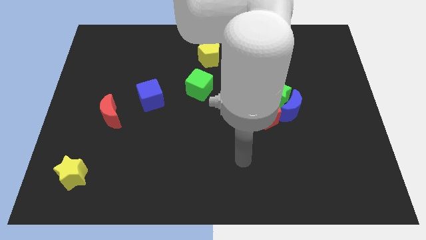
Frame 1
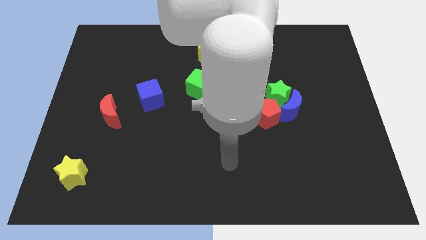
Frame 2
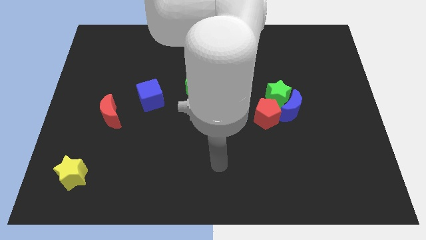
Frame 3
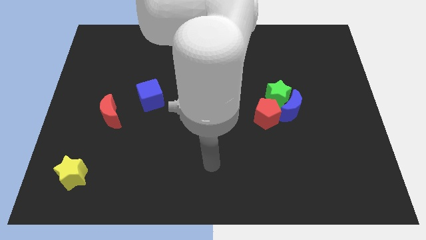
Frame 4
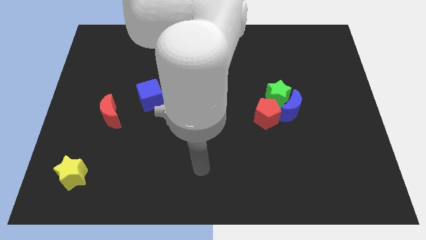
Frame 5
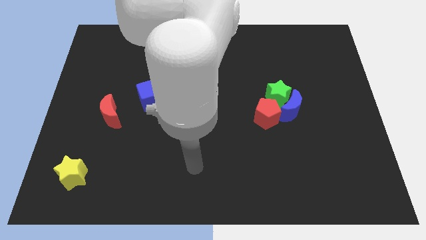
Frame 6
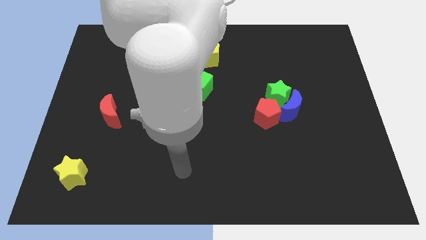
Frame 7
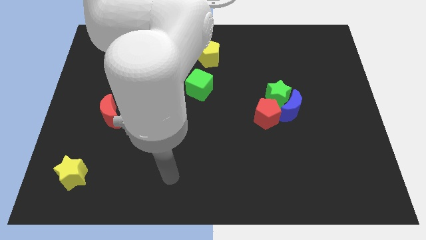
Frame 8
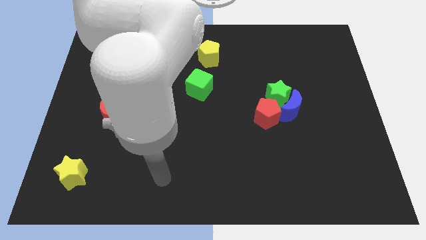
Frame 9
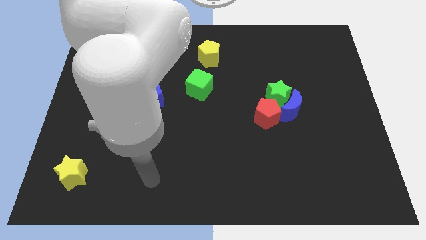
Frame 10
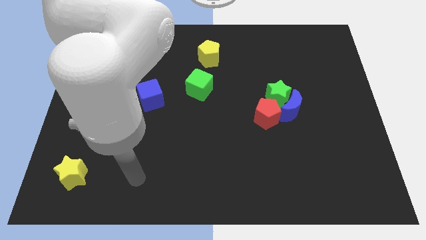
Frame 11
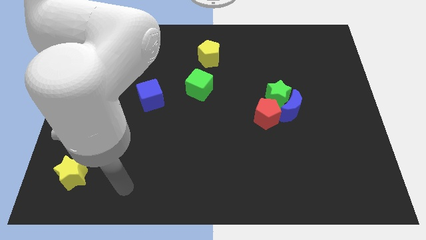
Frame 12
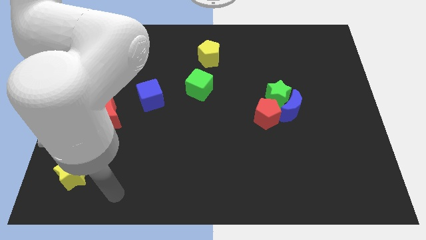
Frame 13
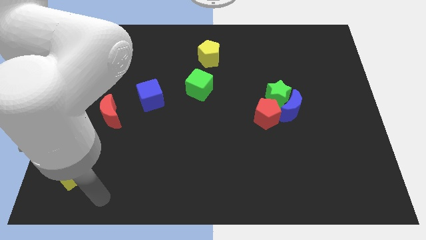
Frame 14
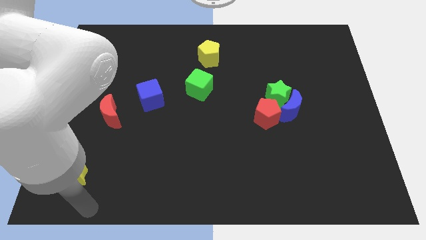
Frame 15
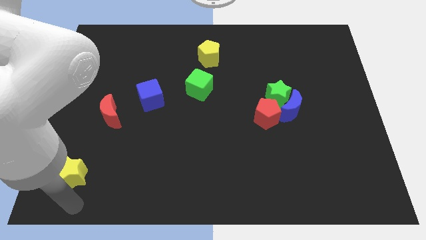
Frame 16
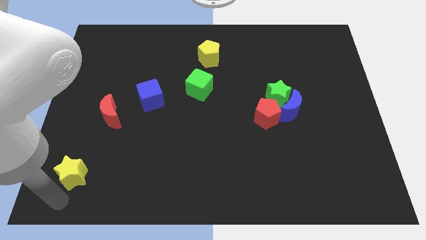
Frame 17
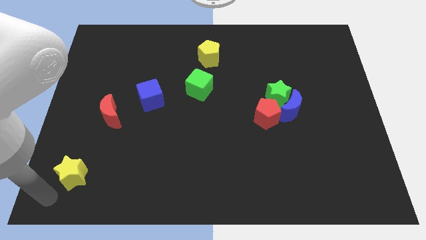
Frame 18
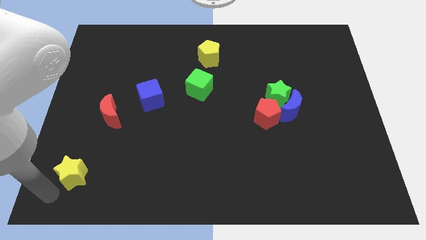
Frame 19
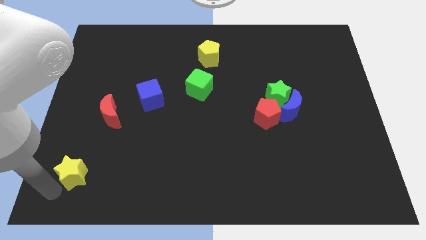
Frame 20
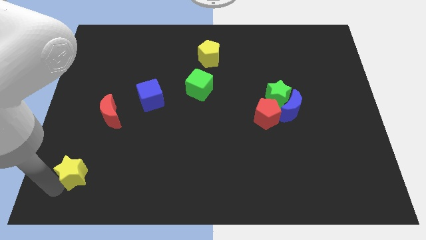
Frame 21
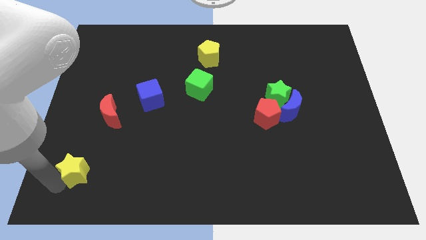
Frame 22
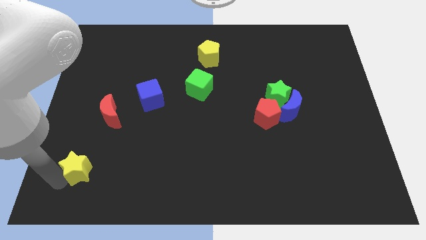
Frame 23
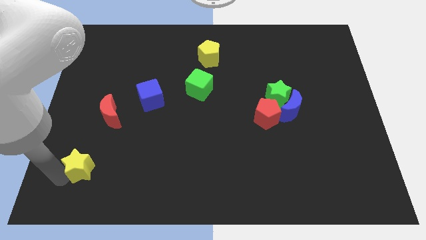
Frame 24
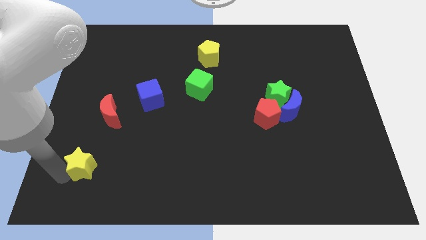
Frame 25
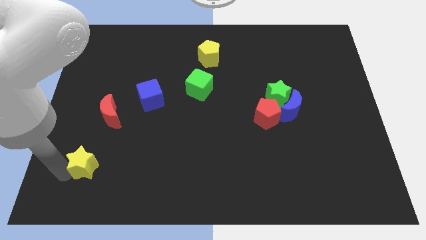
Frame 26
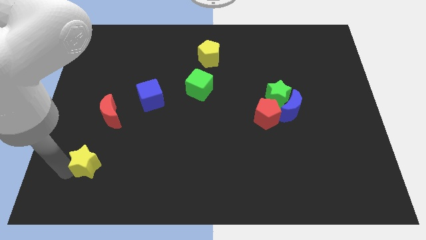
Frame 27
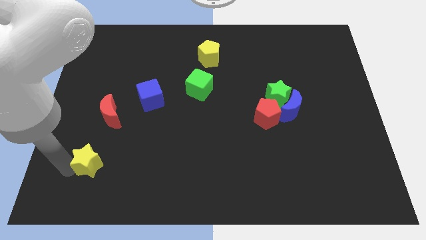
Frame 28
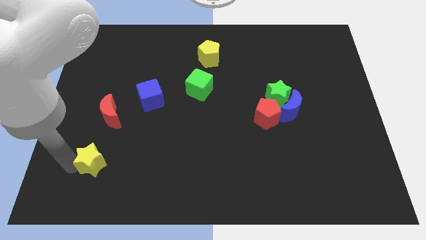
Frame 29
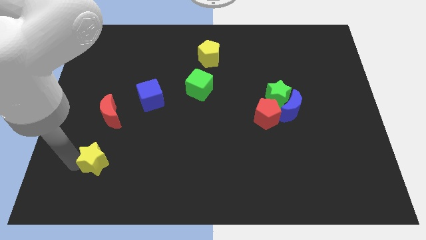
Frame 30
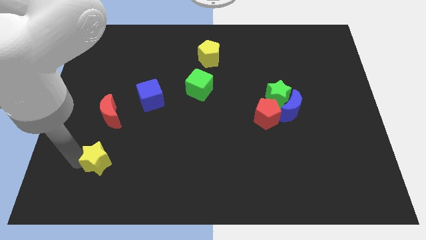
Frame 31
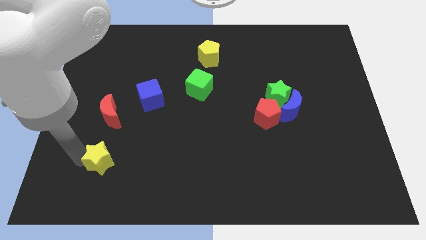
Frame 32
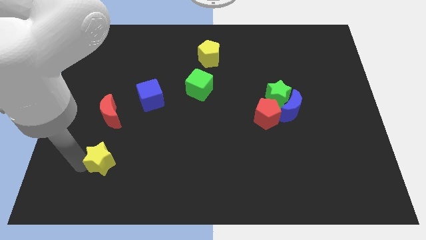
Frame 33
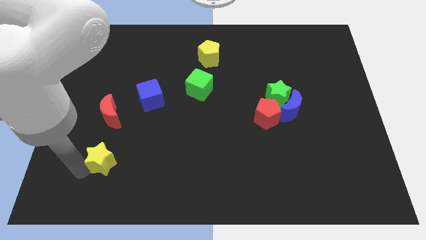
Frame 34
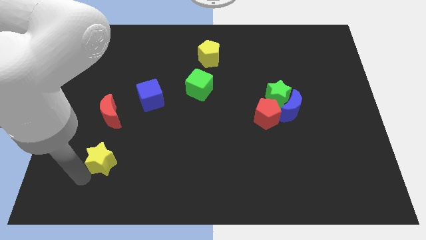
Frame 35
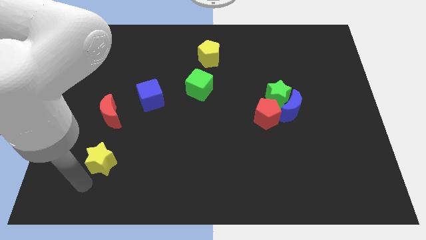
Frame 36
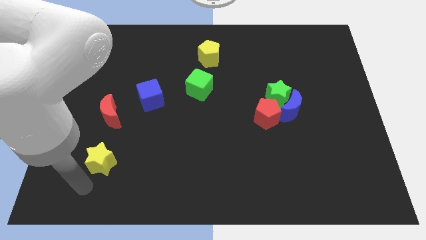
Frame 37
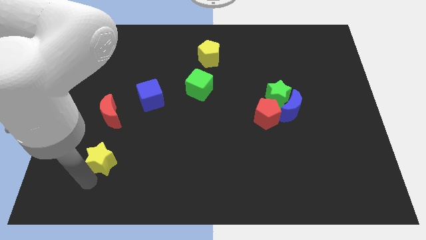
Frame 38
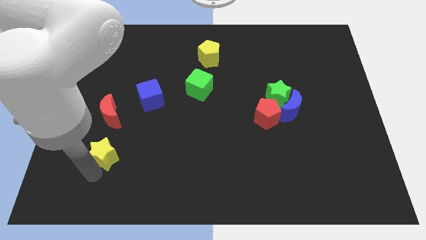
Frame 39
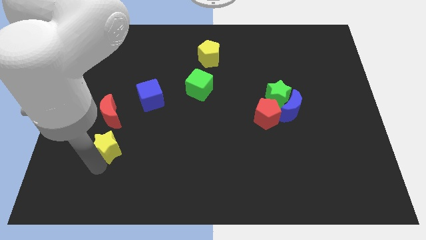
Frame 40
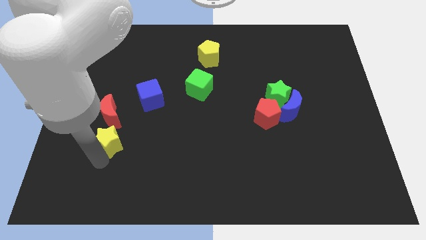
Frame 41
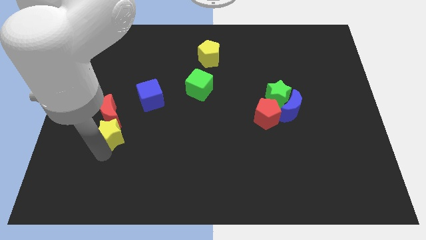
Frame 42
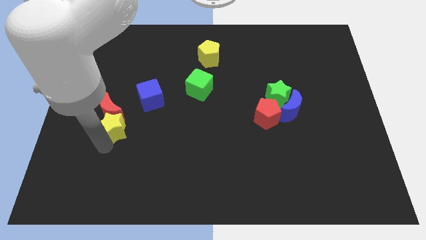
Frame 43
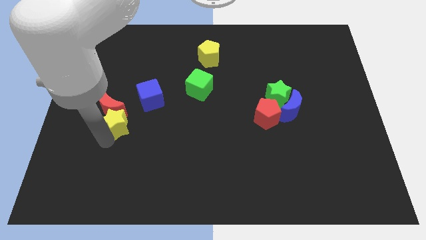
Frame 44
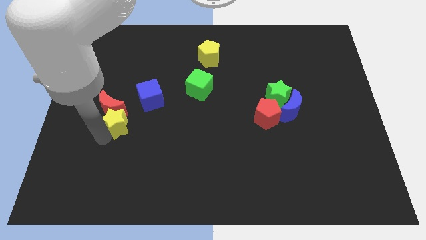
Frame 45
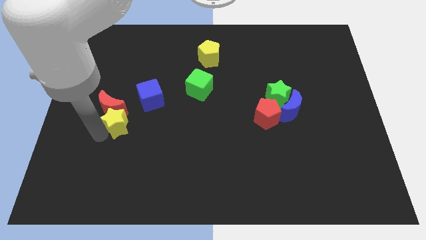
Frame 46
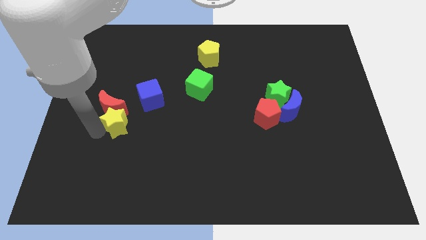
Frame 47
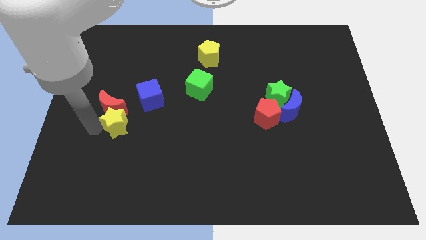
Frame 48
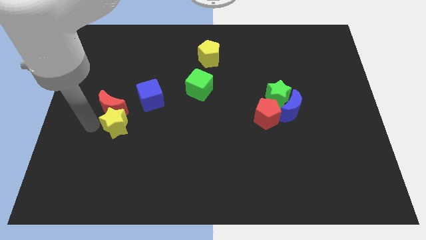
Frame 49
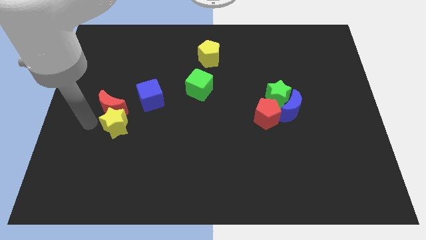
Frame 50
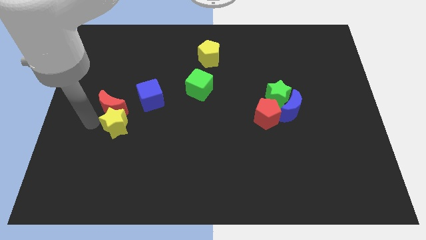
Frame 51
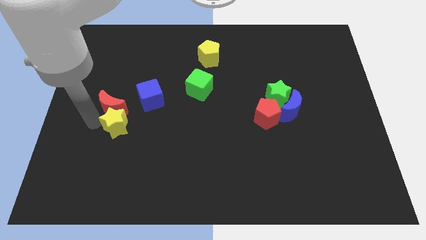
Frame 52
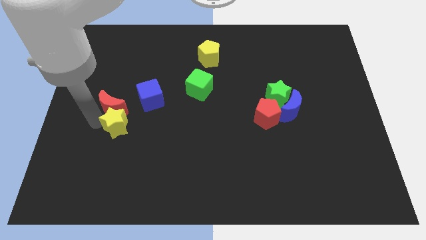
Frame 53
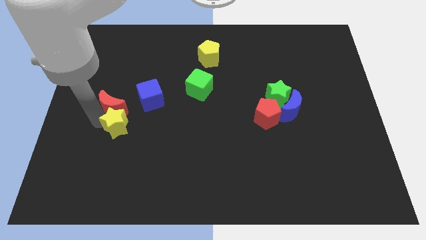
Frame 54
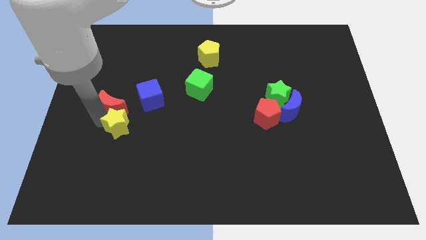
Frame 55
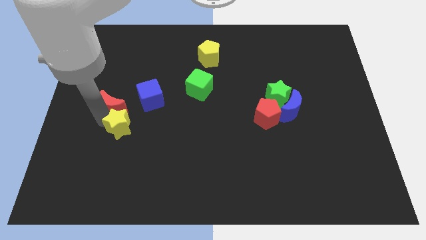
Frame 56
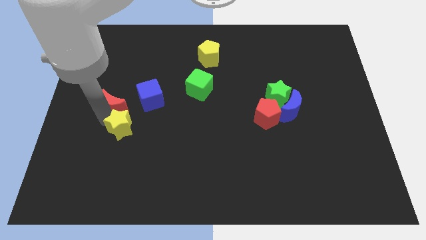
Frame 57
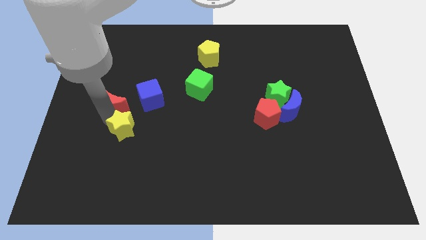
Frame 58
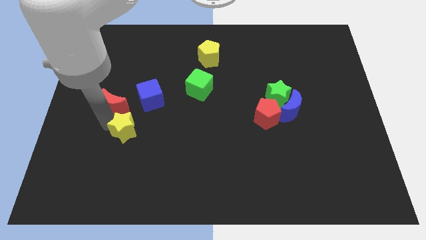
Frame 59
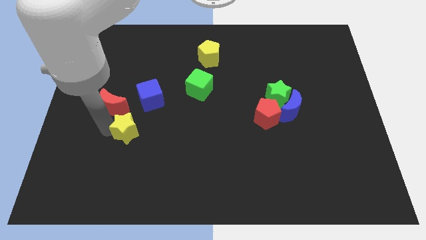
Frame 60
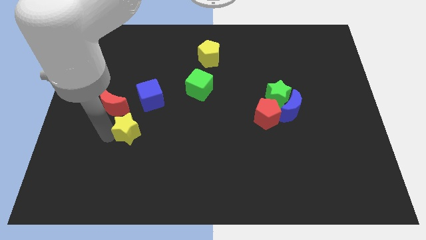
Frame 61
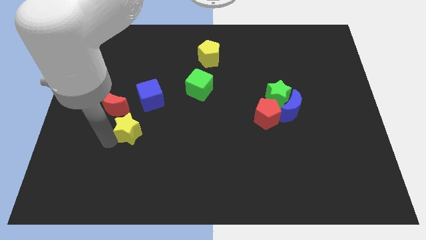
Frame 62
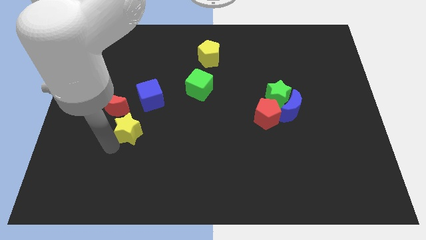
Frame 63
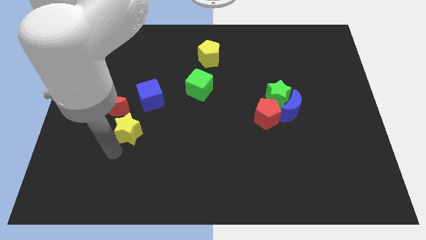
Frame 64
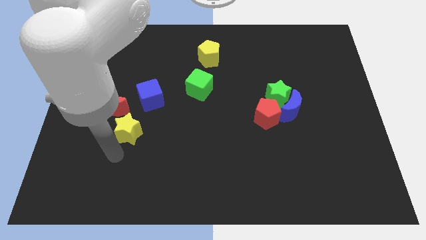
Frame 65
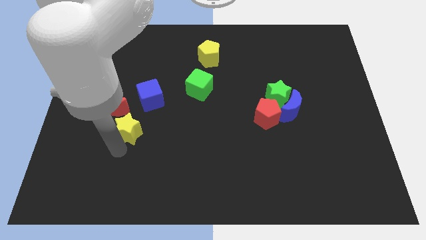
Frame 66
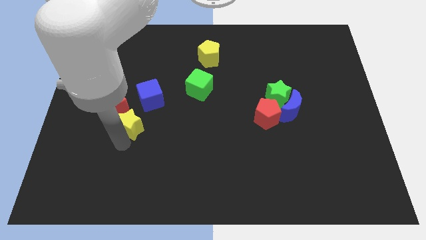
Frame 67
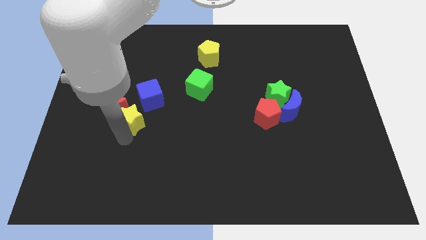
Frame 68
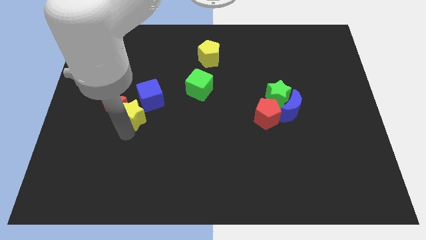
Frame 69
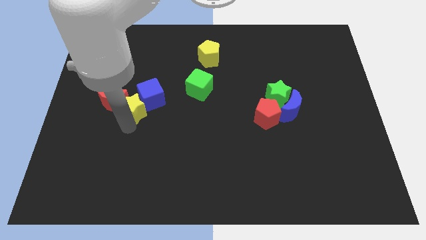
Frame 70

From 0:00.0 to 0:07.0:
put the yellow star to the blue cube

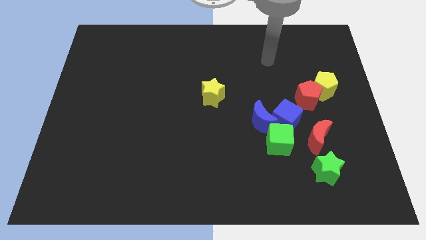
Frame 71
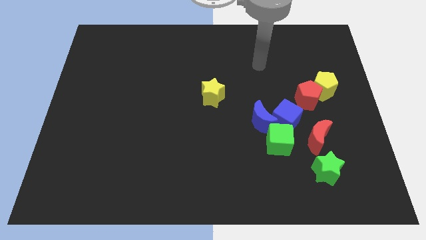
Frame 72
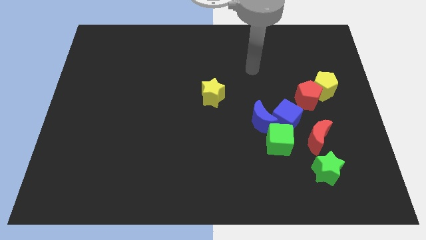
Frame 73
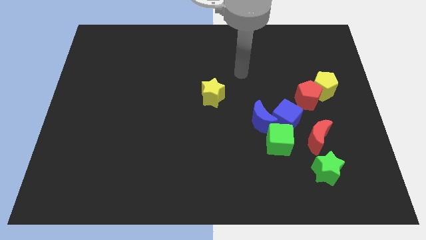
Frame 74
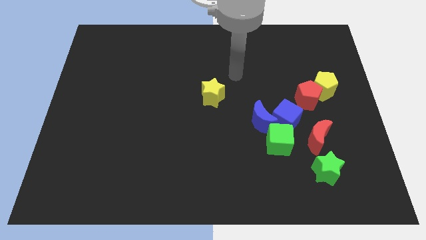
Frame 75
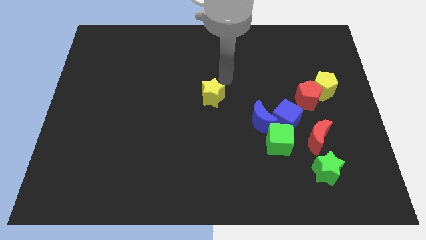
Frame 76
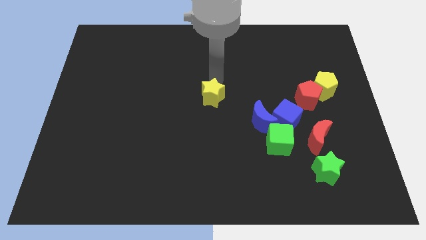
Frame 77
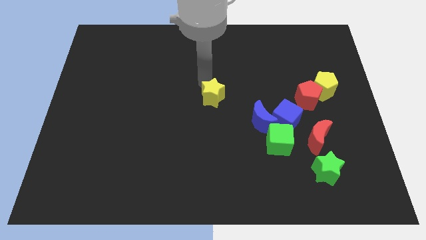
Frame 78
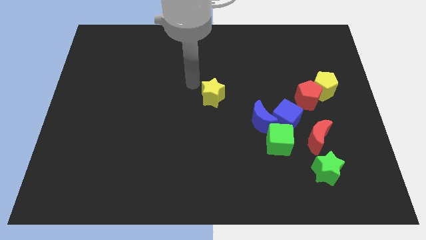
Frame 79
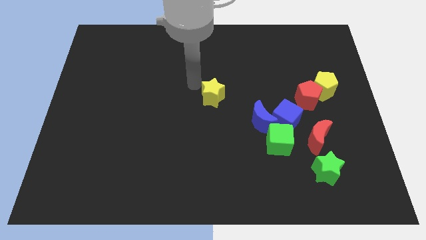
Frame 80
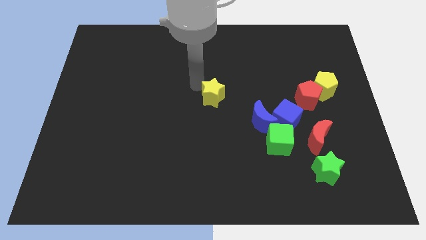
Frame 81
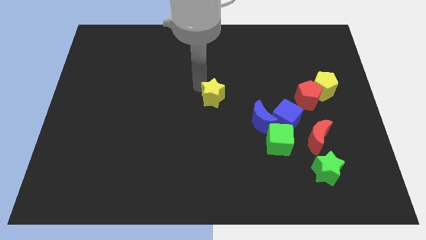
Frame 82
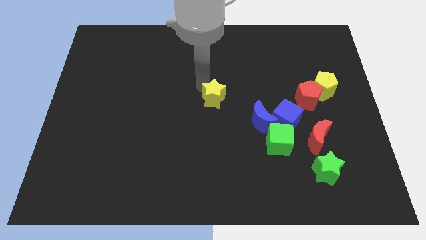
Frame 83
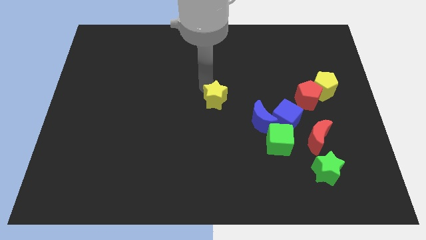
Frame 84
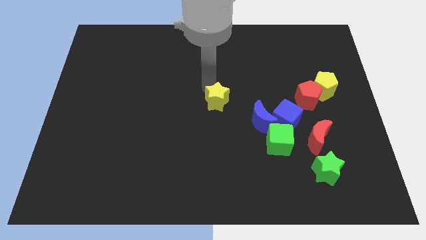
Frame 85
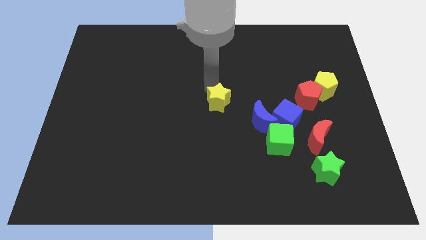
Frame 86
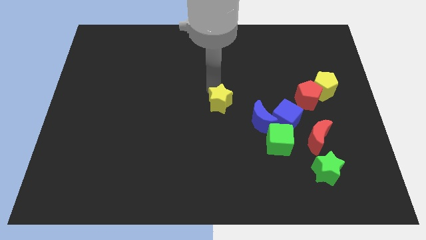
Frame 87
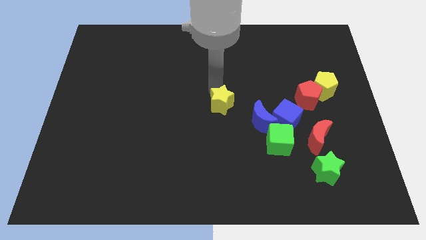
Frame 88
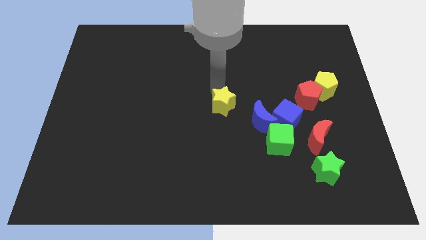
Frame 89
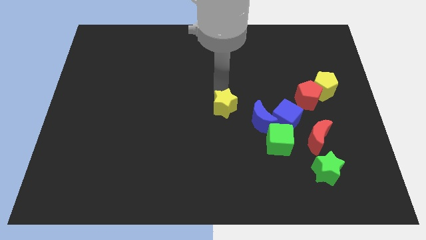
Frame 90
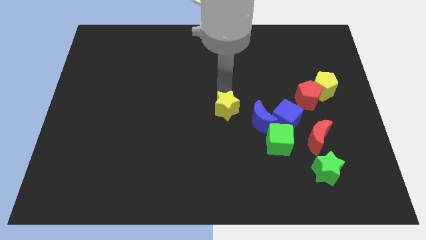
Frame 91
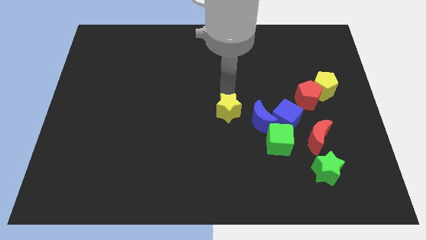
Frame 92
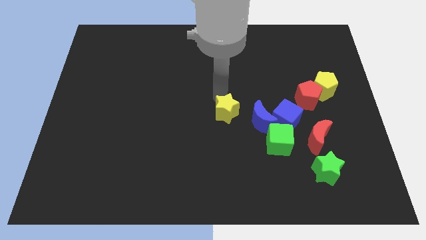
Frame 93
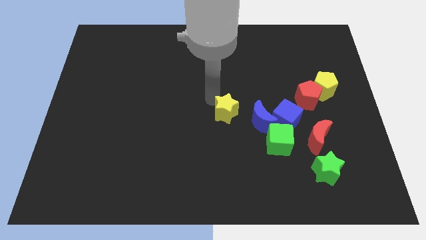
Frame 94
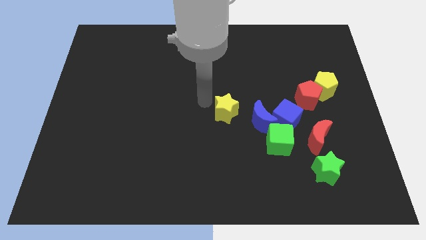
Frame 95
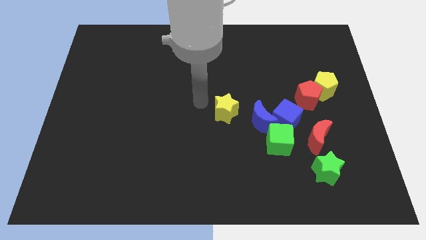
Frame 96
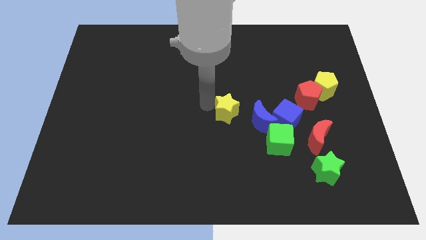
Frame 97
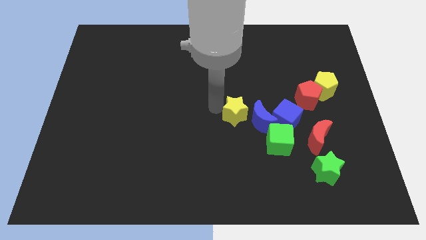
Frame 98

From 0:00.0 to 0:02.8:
slide the yellow star towards the blue moon
